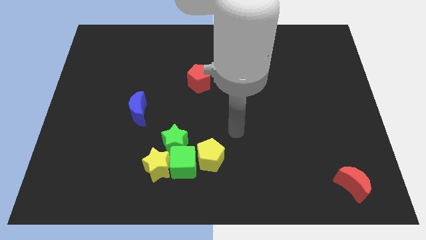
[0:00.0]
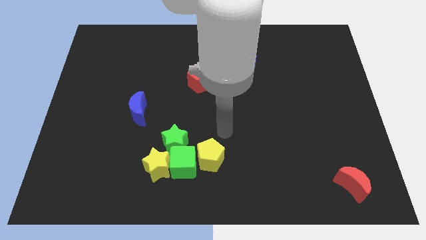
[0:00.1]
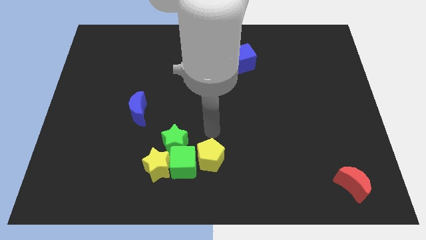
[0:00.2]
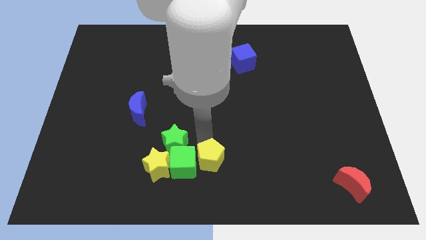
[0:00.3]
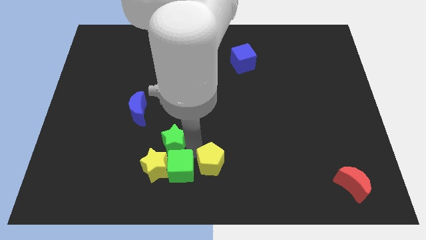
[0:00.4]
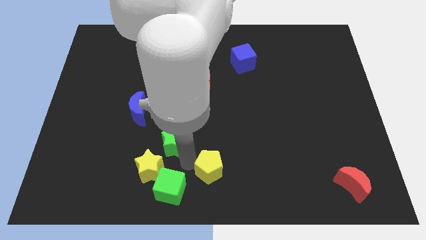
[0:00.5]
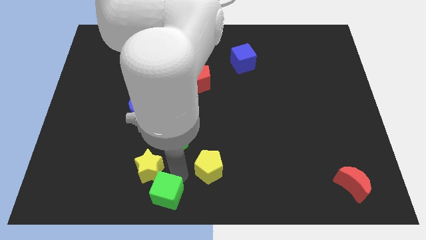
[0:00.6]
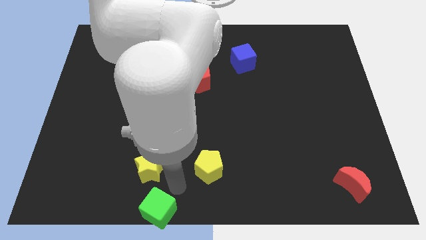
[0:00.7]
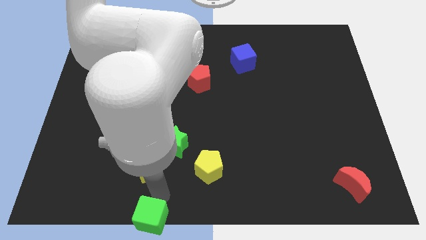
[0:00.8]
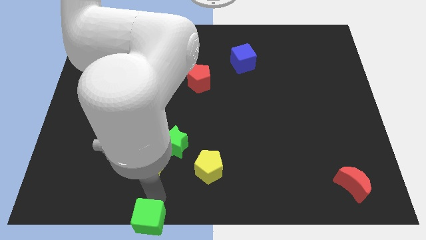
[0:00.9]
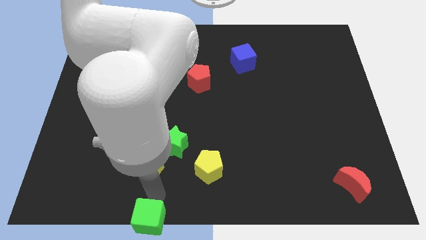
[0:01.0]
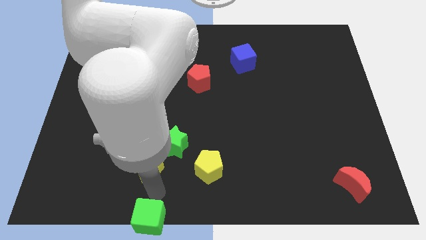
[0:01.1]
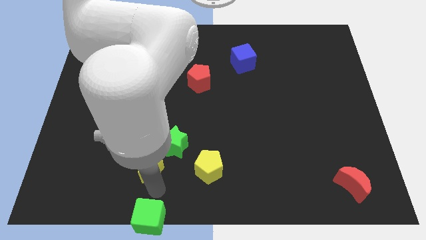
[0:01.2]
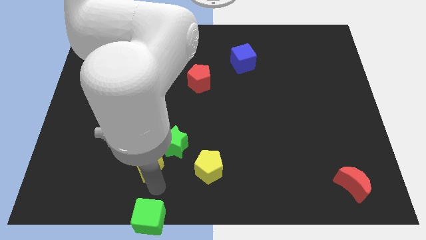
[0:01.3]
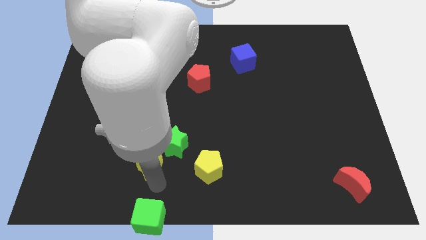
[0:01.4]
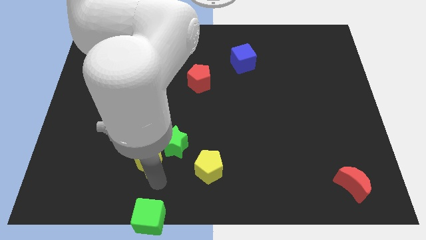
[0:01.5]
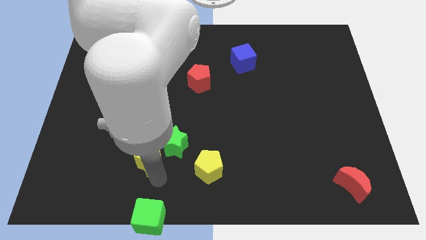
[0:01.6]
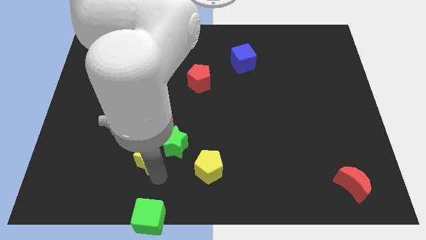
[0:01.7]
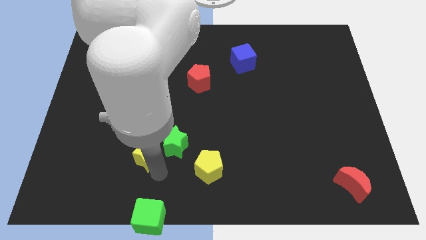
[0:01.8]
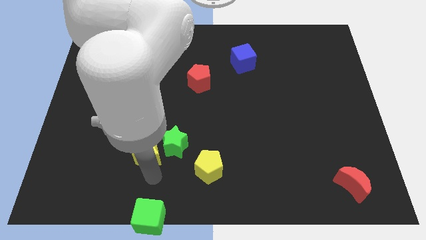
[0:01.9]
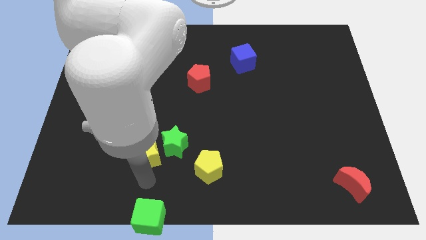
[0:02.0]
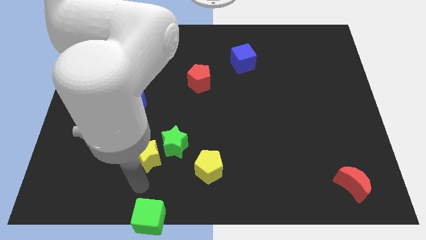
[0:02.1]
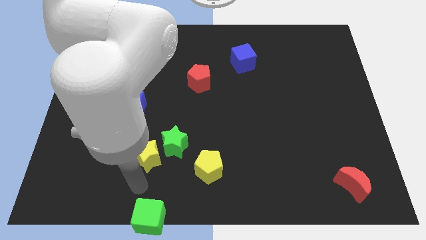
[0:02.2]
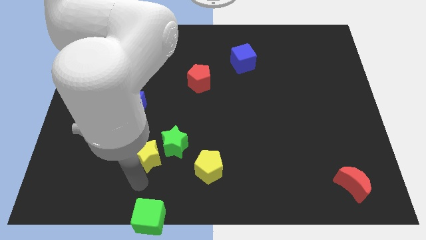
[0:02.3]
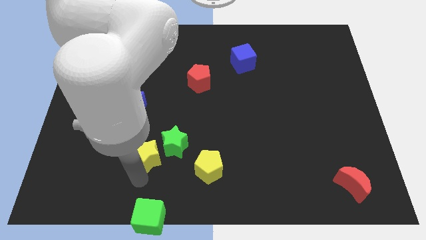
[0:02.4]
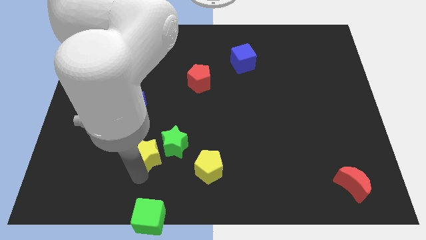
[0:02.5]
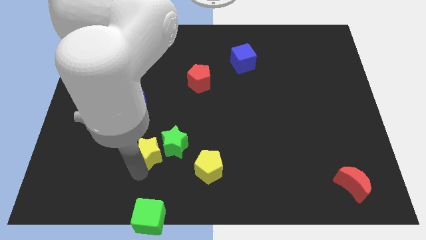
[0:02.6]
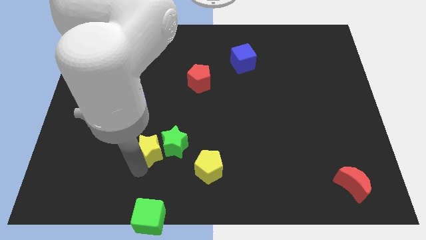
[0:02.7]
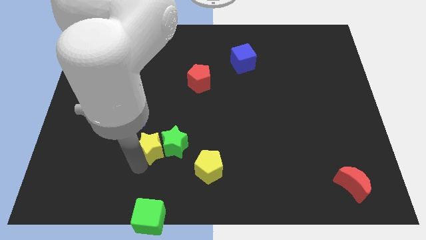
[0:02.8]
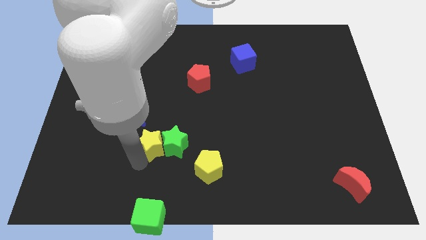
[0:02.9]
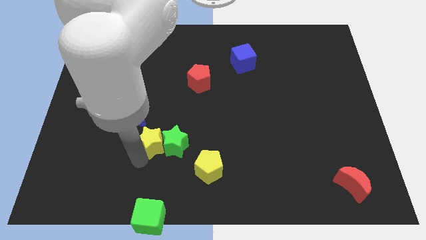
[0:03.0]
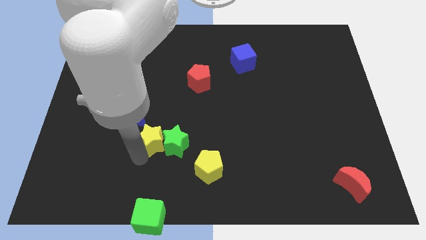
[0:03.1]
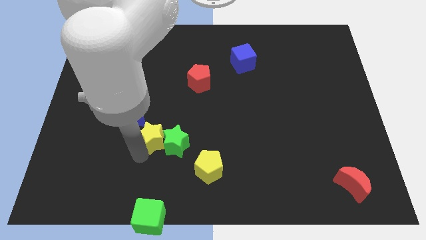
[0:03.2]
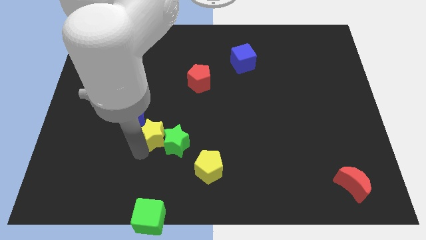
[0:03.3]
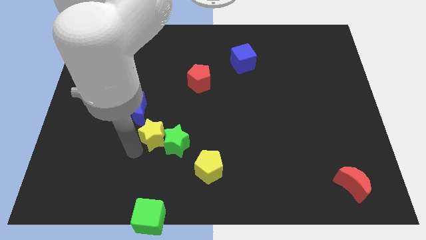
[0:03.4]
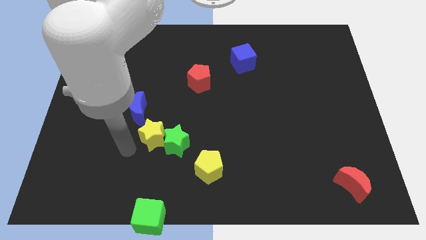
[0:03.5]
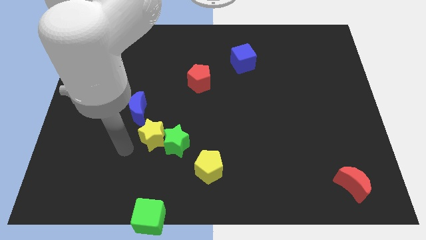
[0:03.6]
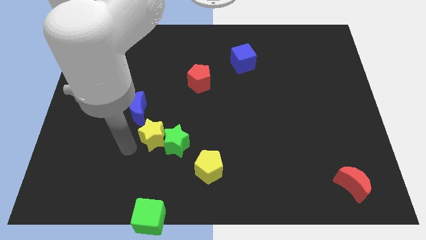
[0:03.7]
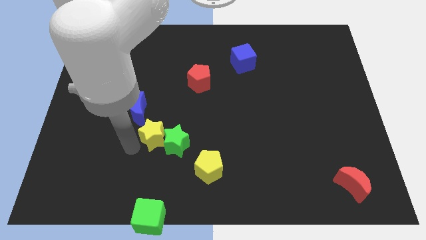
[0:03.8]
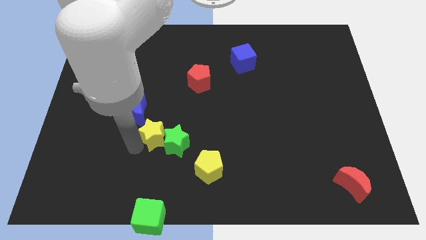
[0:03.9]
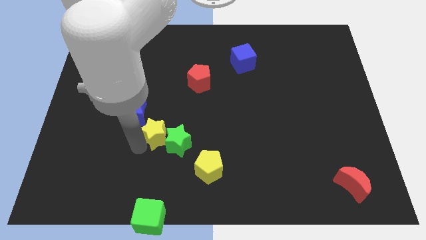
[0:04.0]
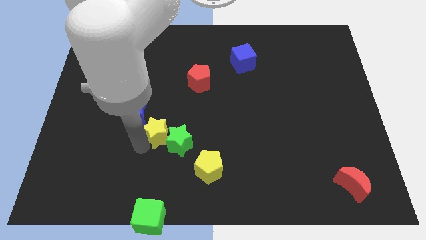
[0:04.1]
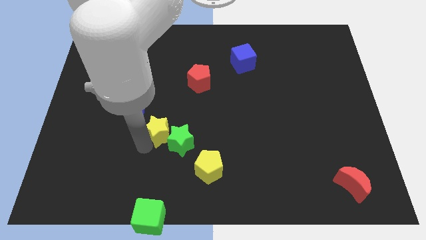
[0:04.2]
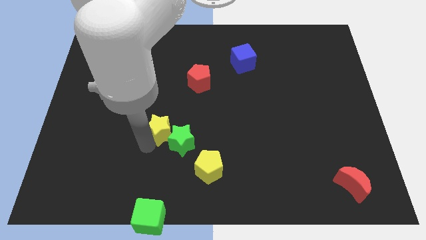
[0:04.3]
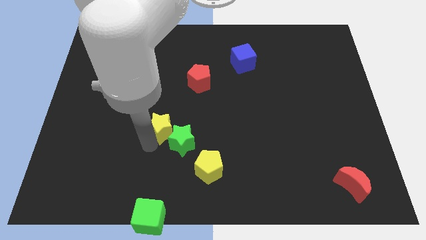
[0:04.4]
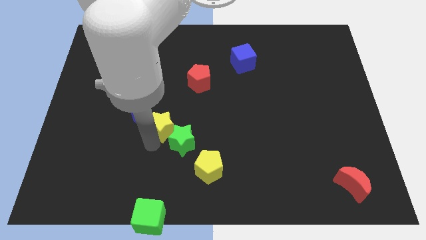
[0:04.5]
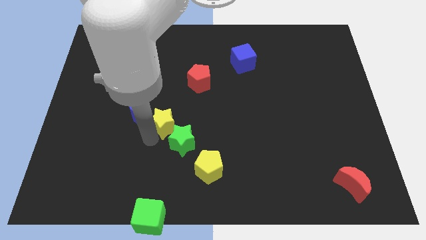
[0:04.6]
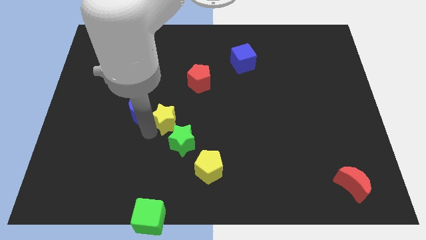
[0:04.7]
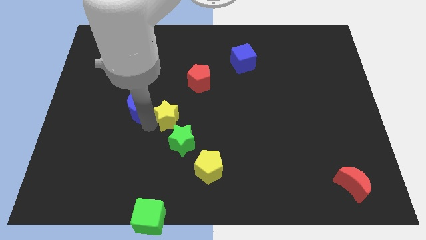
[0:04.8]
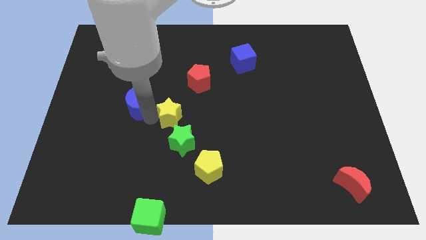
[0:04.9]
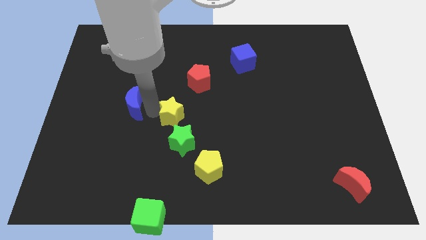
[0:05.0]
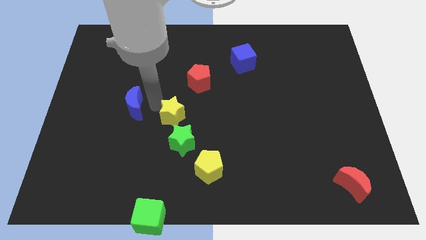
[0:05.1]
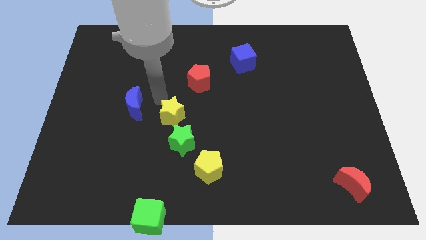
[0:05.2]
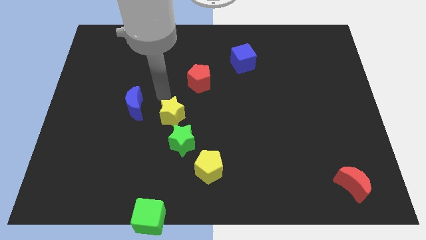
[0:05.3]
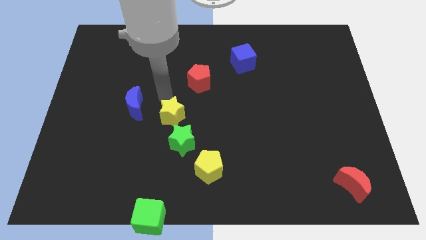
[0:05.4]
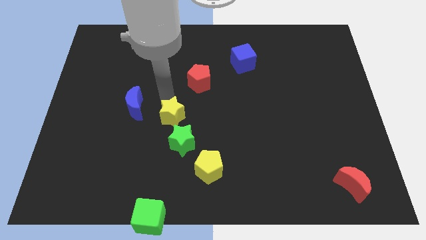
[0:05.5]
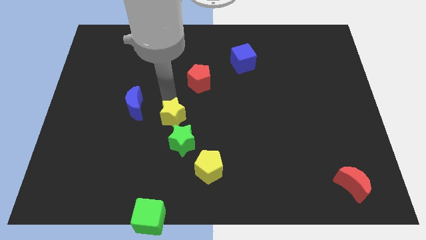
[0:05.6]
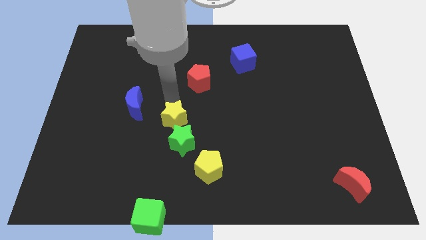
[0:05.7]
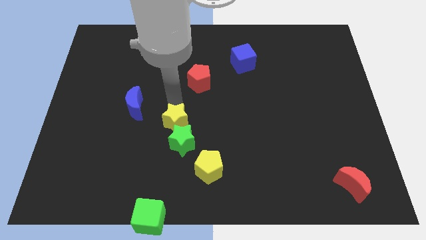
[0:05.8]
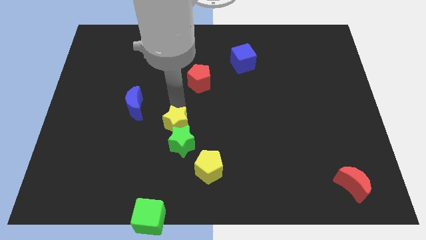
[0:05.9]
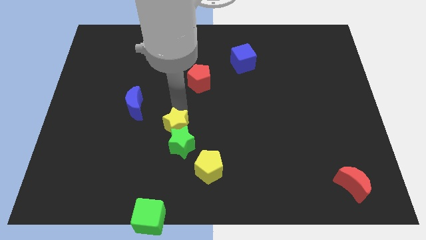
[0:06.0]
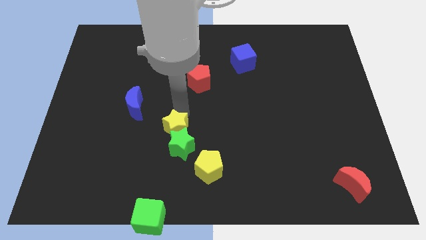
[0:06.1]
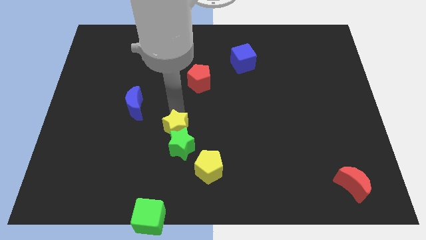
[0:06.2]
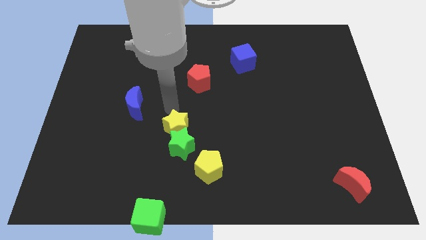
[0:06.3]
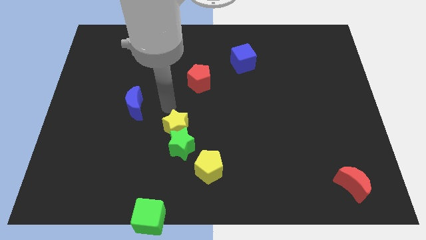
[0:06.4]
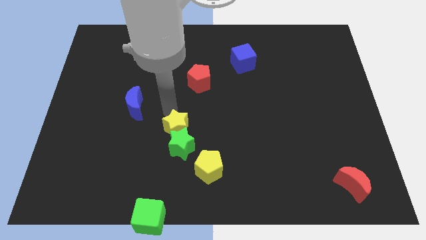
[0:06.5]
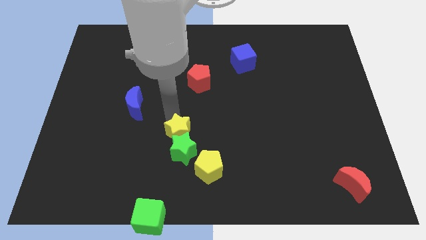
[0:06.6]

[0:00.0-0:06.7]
put the yellow star diagonally up and to the left of the yellow pentagon

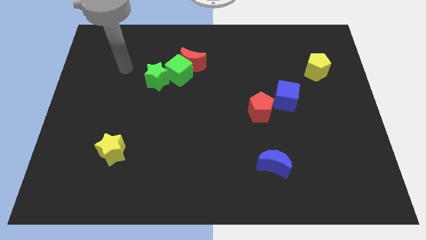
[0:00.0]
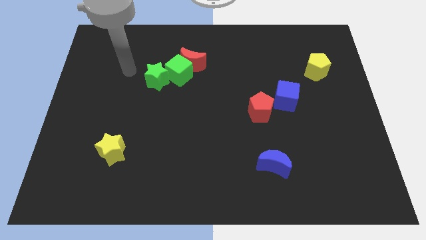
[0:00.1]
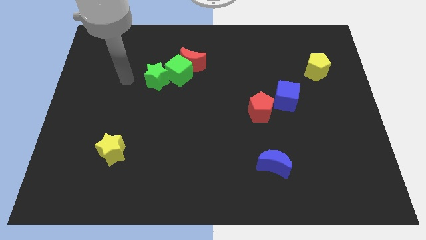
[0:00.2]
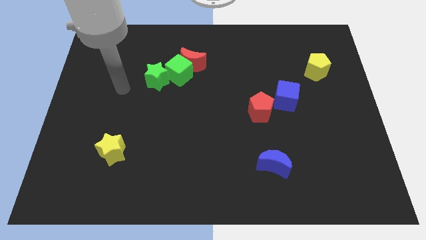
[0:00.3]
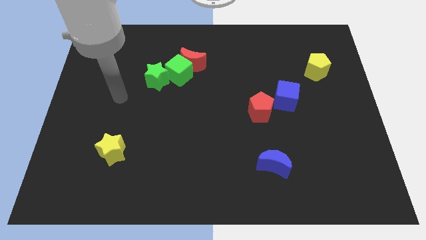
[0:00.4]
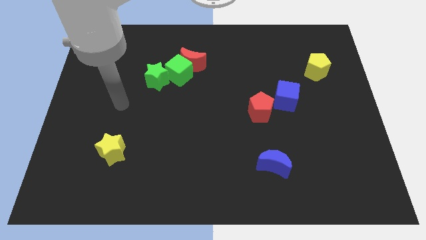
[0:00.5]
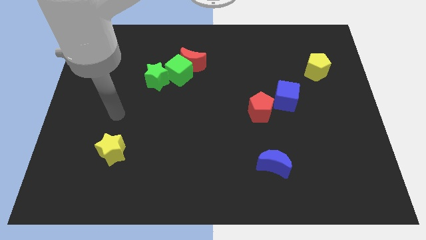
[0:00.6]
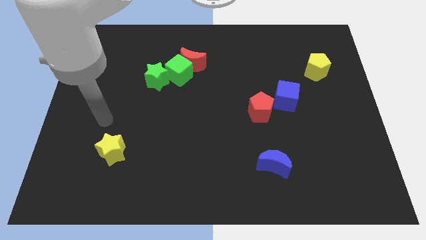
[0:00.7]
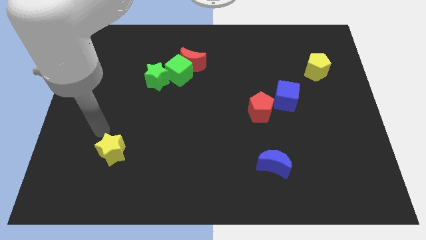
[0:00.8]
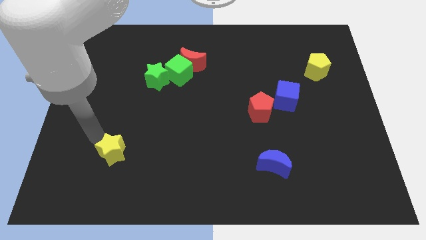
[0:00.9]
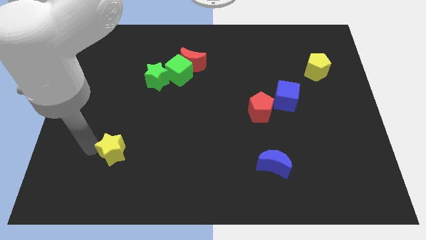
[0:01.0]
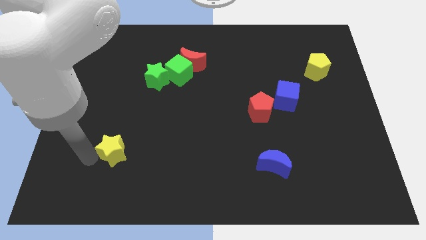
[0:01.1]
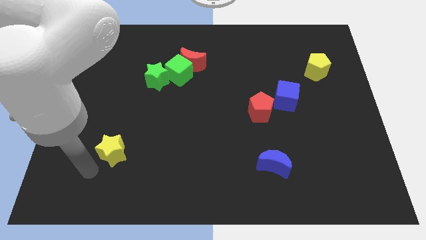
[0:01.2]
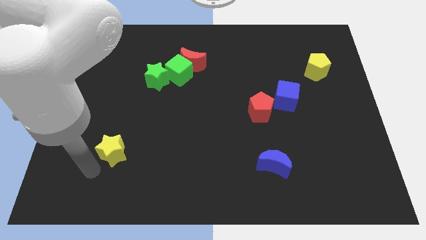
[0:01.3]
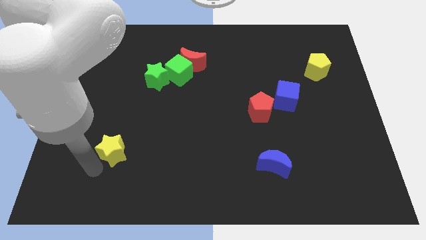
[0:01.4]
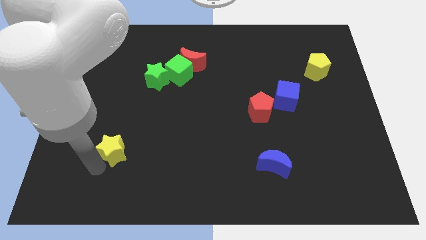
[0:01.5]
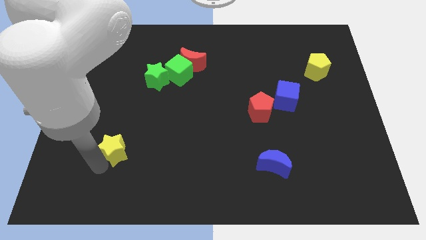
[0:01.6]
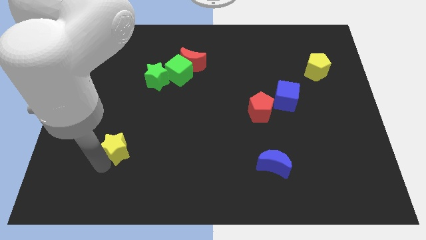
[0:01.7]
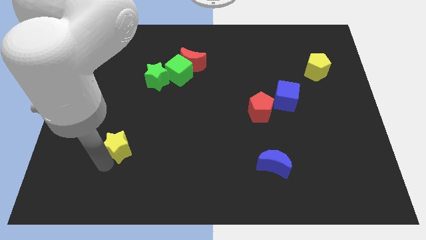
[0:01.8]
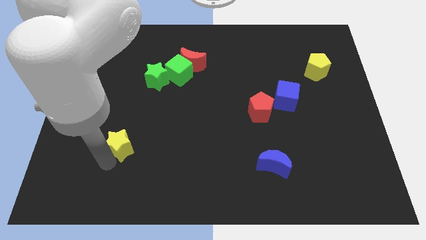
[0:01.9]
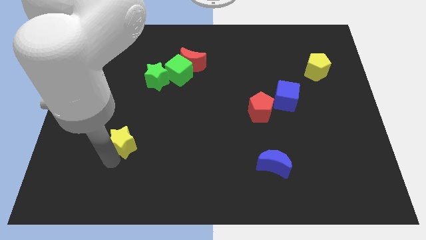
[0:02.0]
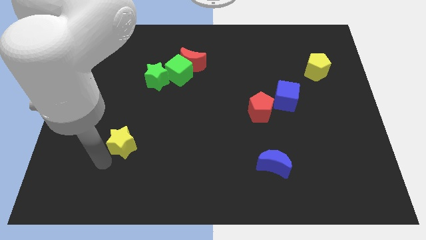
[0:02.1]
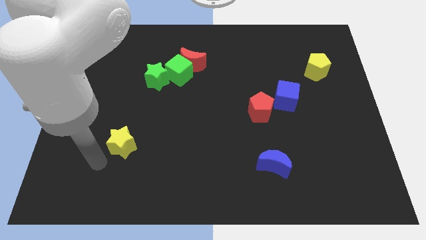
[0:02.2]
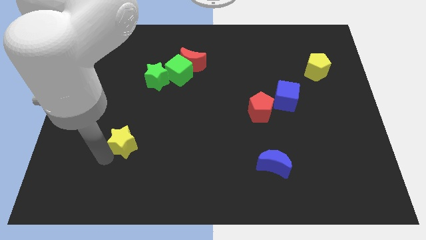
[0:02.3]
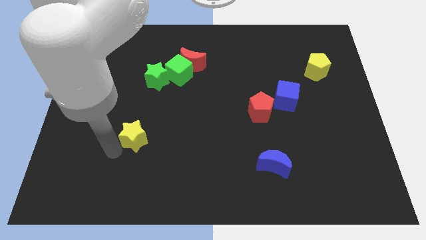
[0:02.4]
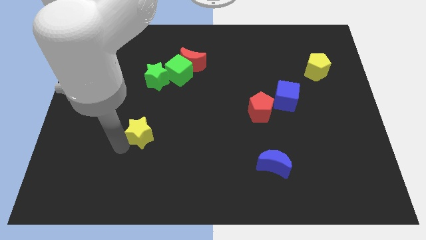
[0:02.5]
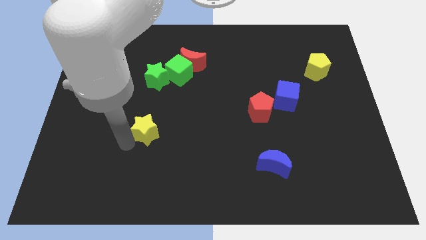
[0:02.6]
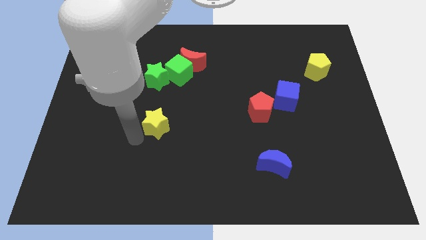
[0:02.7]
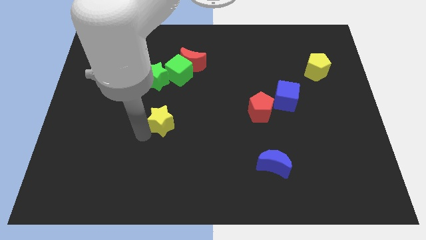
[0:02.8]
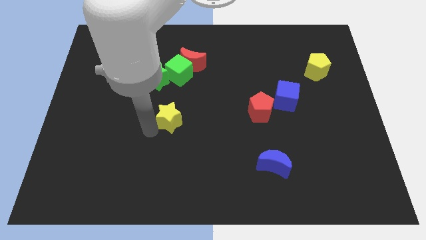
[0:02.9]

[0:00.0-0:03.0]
slide the yellow star to the bottom of the green cube
